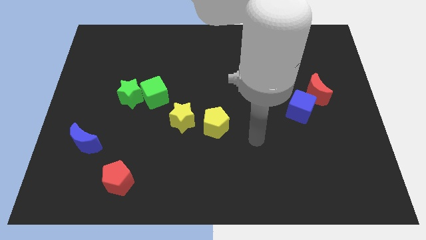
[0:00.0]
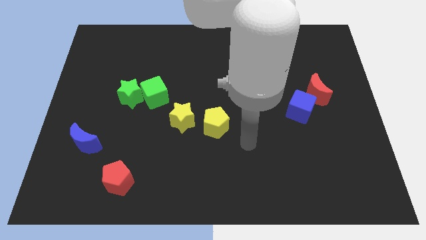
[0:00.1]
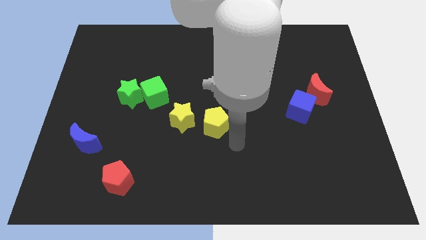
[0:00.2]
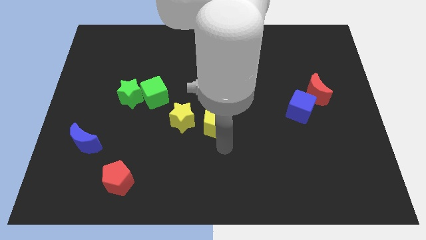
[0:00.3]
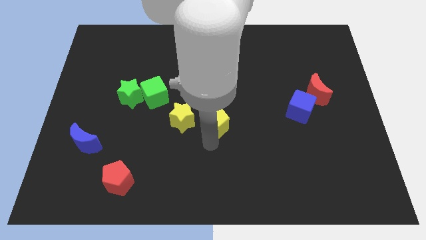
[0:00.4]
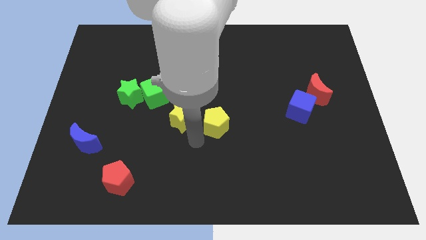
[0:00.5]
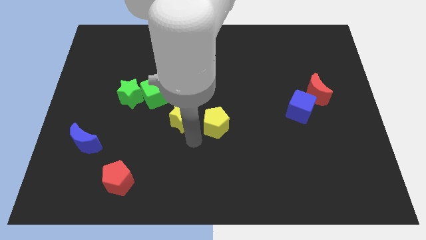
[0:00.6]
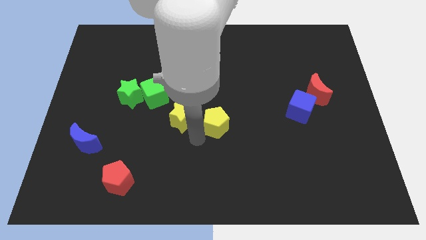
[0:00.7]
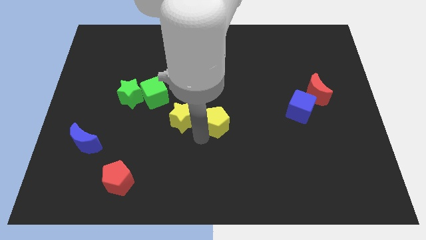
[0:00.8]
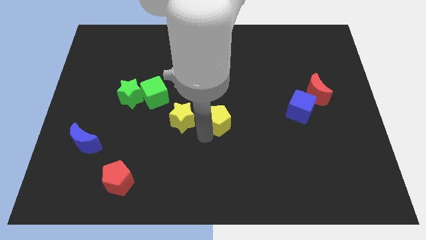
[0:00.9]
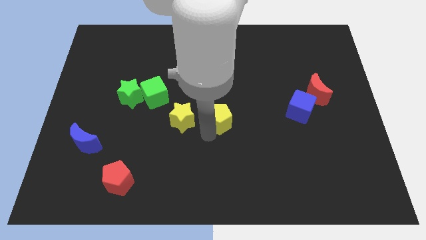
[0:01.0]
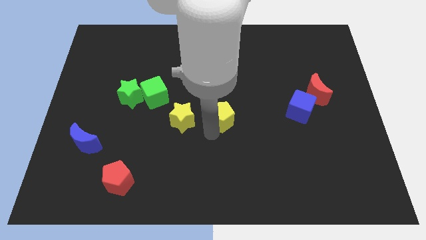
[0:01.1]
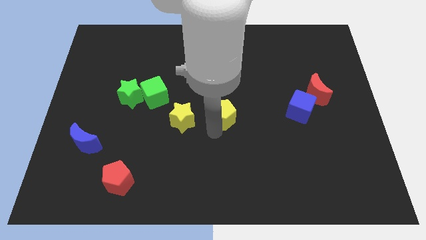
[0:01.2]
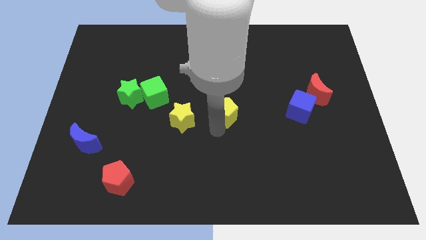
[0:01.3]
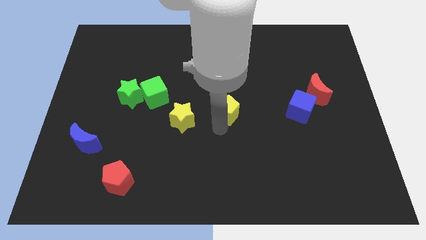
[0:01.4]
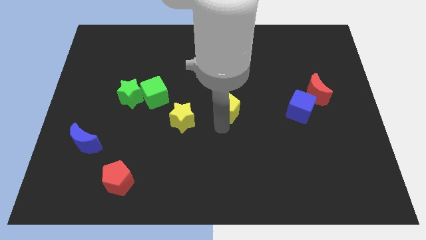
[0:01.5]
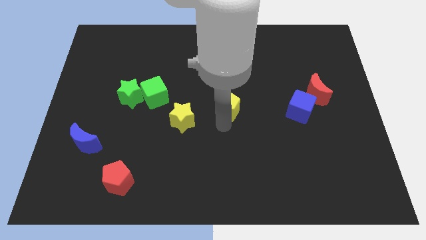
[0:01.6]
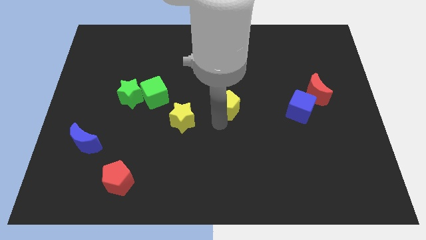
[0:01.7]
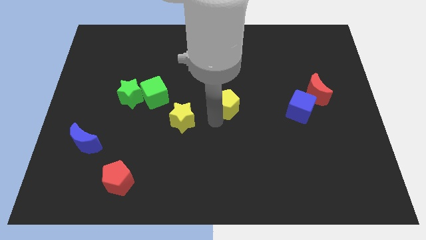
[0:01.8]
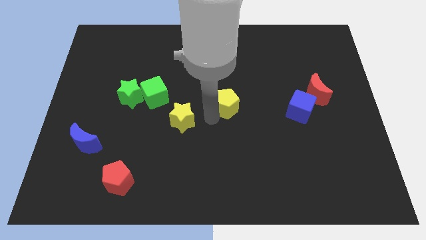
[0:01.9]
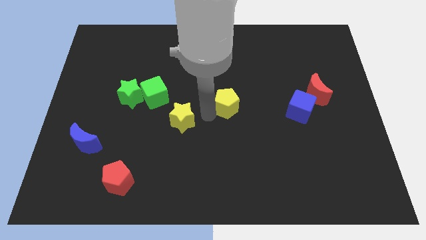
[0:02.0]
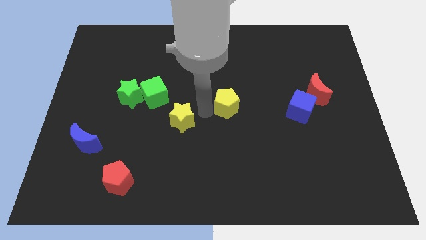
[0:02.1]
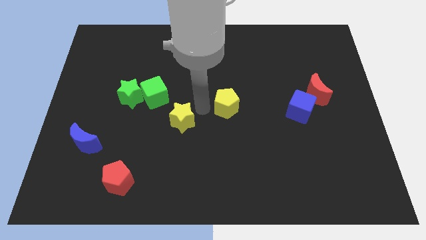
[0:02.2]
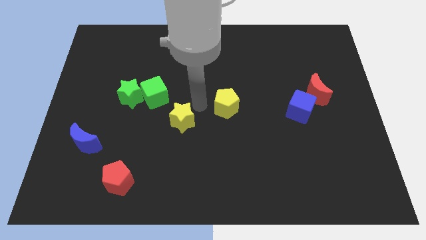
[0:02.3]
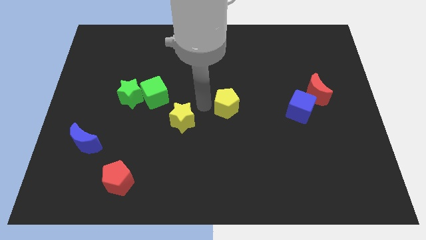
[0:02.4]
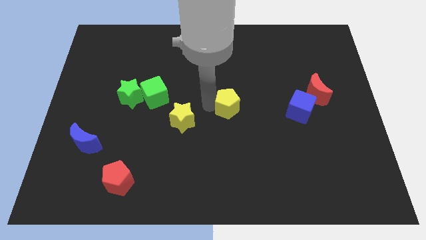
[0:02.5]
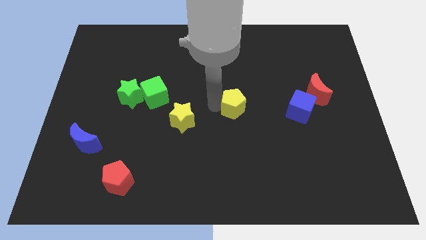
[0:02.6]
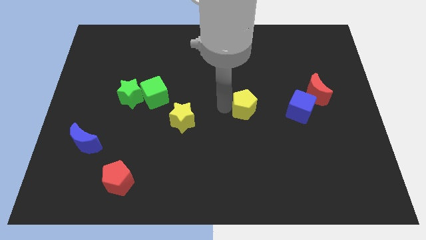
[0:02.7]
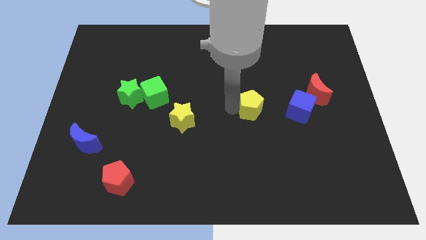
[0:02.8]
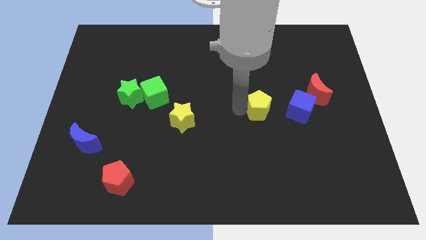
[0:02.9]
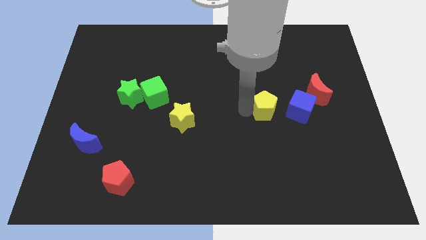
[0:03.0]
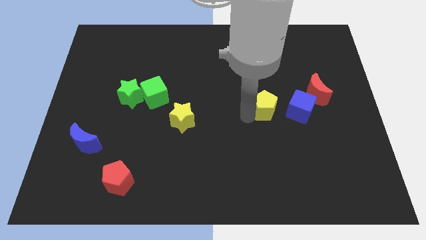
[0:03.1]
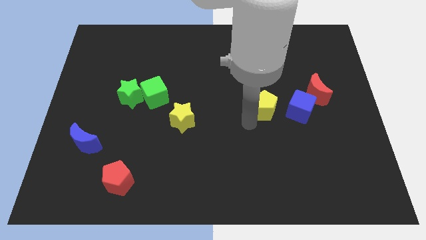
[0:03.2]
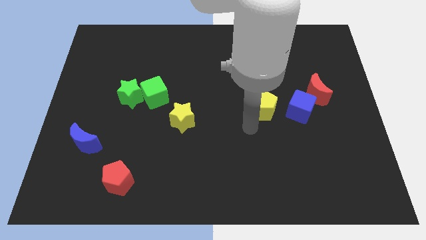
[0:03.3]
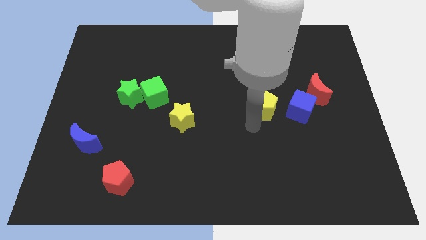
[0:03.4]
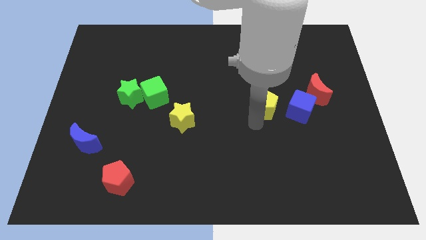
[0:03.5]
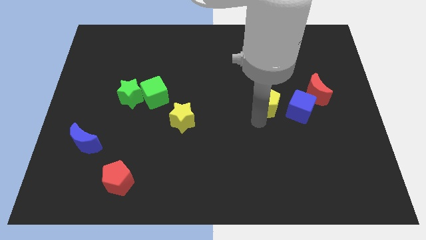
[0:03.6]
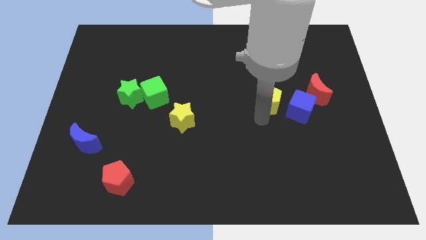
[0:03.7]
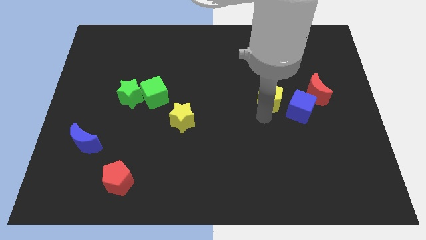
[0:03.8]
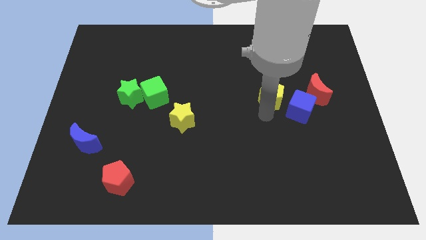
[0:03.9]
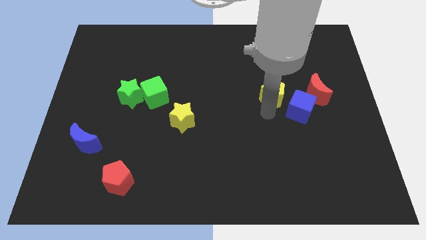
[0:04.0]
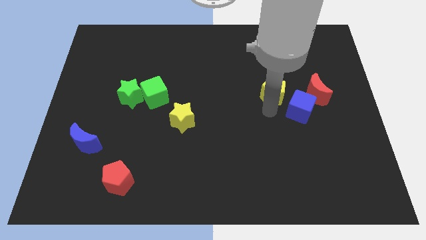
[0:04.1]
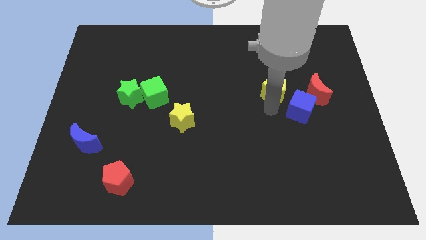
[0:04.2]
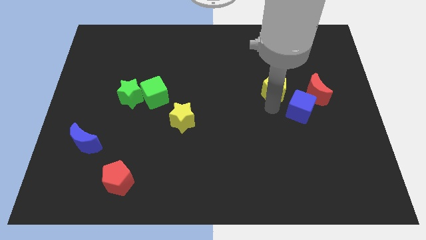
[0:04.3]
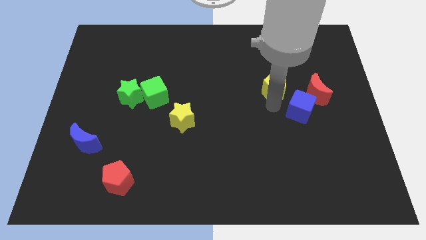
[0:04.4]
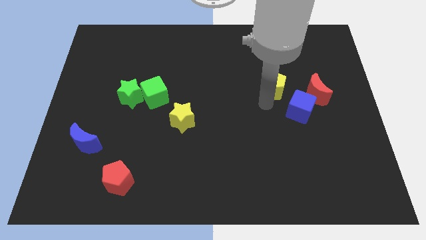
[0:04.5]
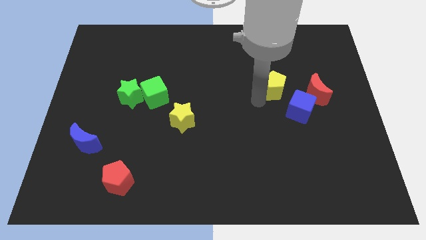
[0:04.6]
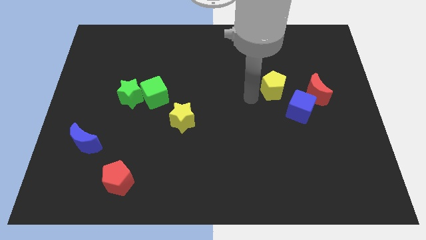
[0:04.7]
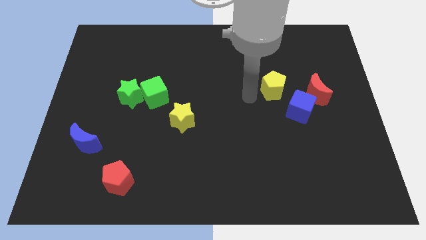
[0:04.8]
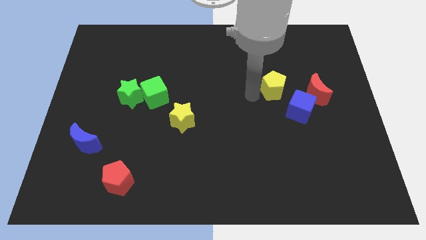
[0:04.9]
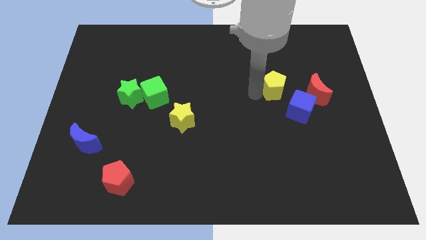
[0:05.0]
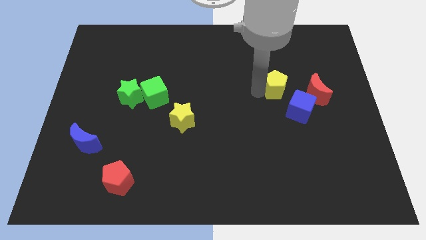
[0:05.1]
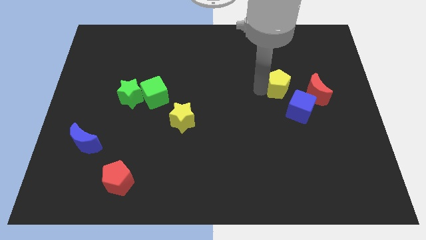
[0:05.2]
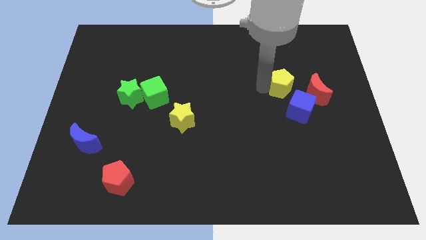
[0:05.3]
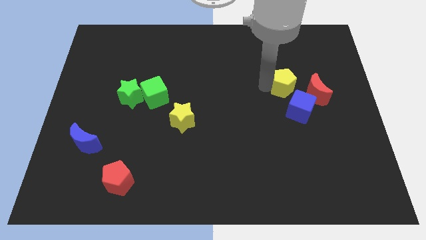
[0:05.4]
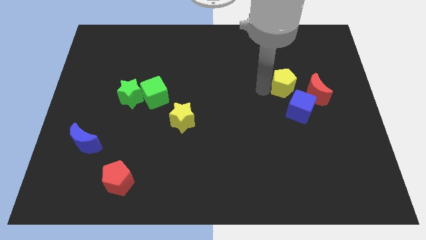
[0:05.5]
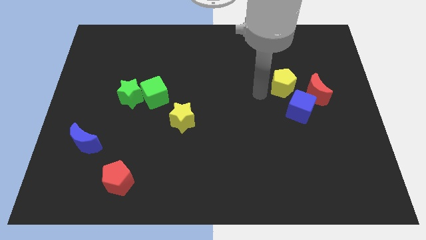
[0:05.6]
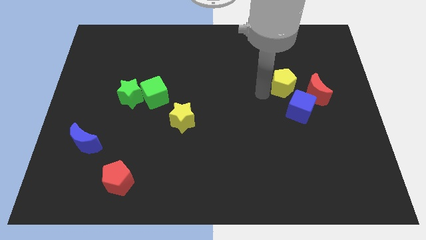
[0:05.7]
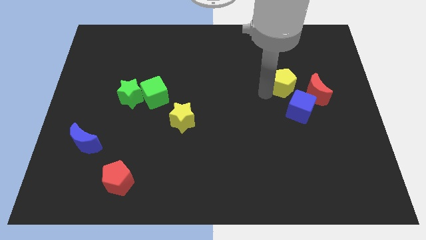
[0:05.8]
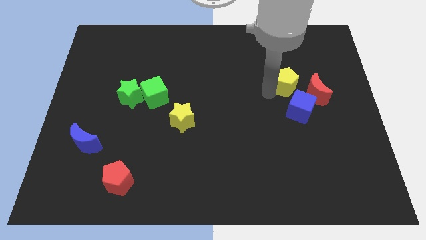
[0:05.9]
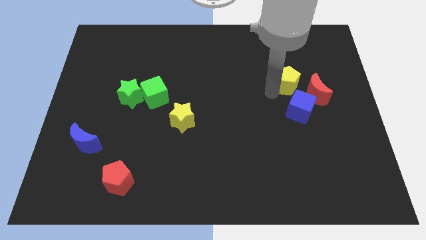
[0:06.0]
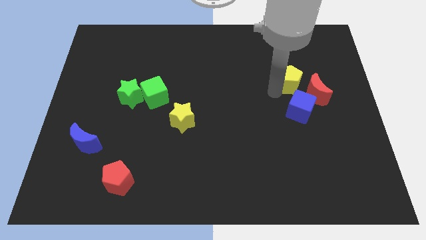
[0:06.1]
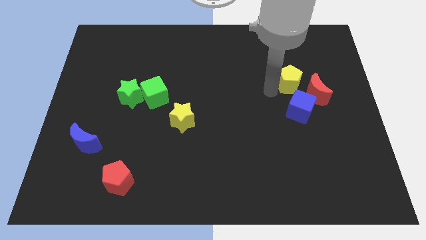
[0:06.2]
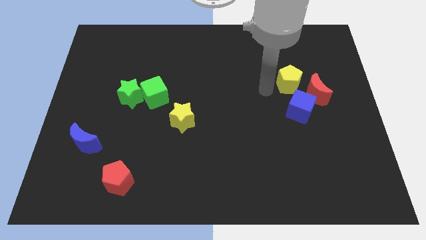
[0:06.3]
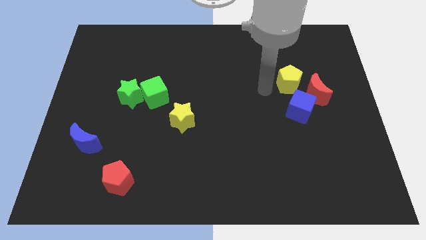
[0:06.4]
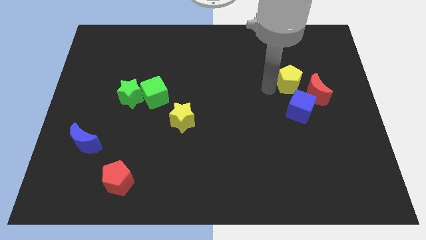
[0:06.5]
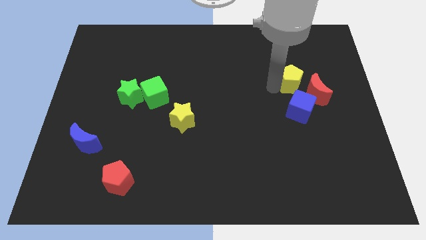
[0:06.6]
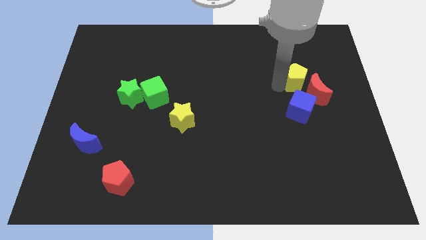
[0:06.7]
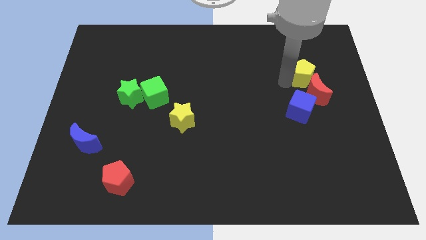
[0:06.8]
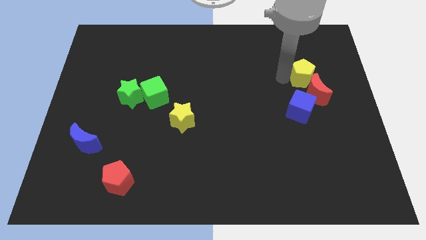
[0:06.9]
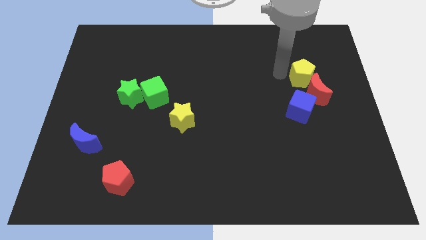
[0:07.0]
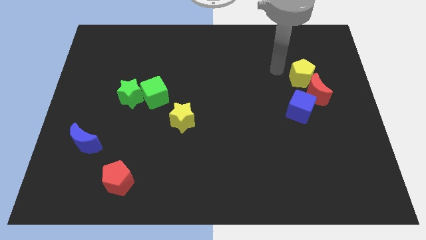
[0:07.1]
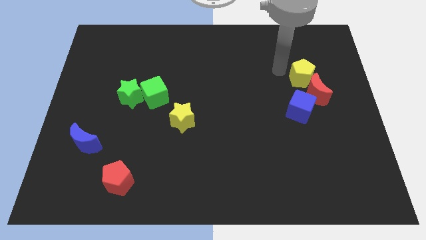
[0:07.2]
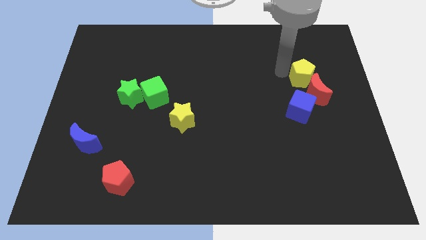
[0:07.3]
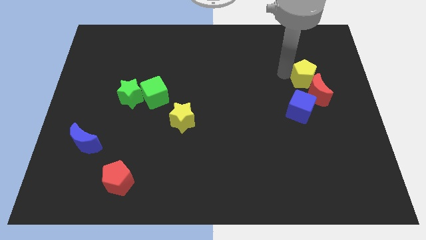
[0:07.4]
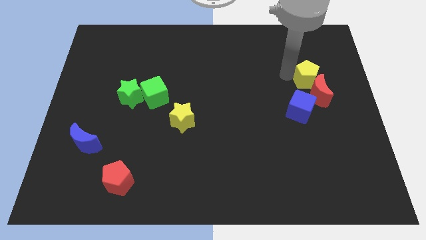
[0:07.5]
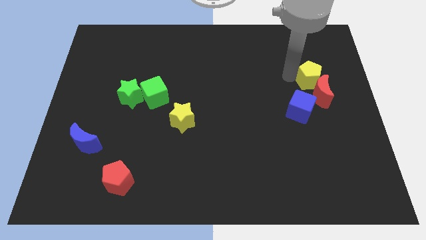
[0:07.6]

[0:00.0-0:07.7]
move the yellow pentagon diagonally up and to the right of the blue cube
